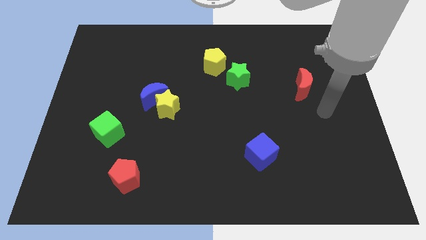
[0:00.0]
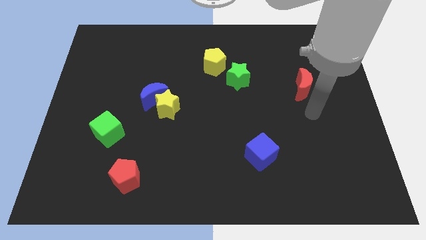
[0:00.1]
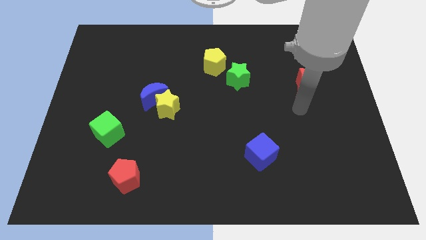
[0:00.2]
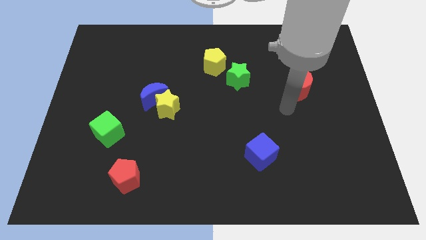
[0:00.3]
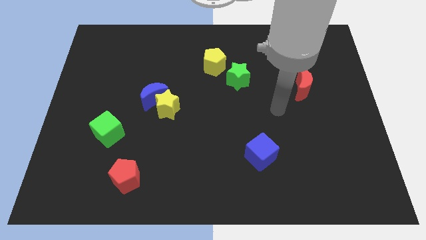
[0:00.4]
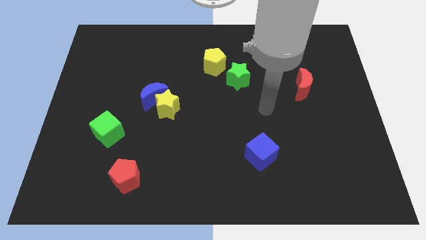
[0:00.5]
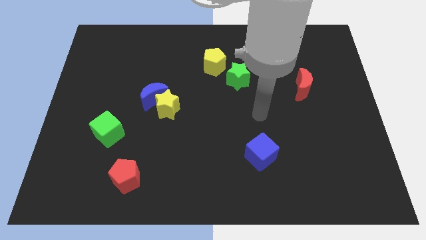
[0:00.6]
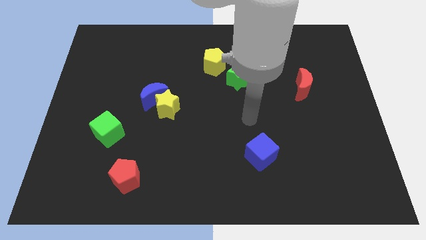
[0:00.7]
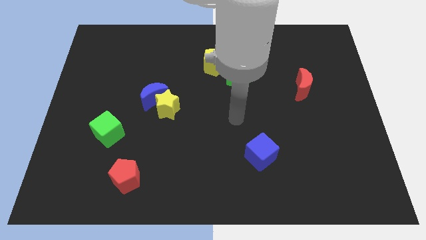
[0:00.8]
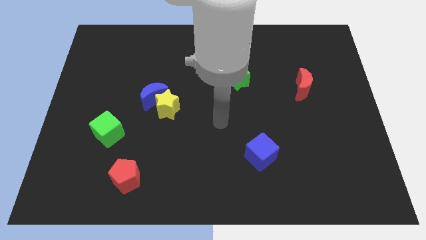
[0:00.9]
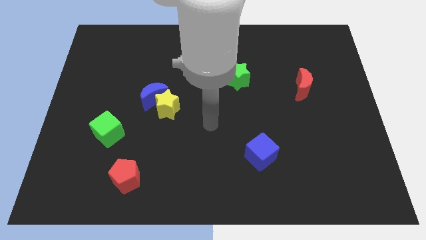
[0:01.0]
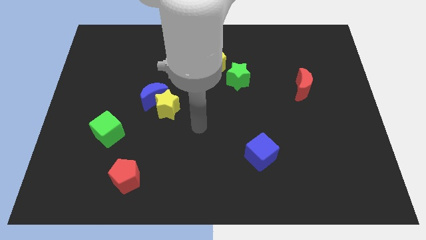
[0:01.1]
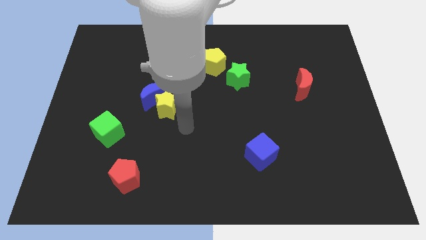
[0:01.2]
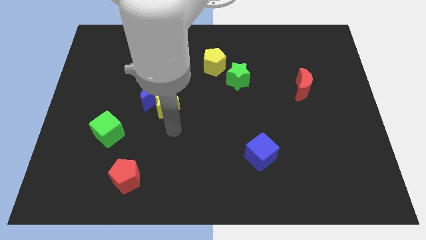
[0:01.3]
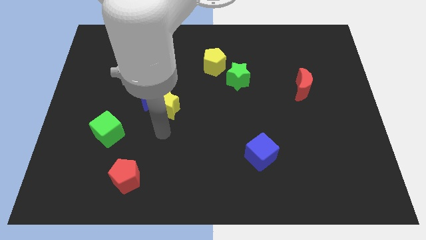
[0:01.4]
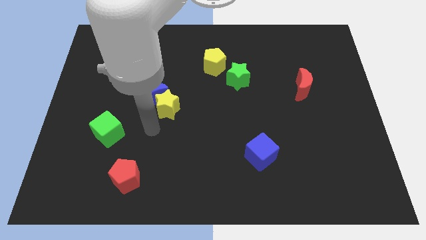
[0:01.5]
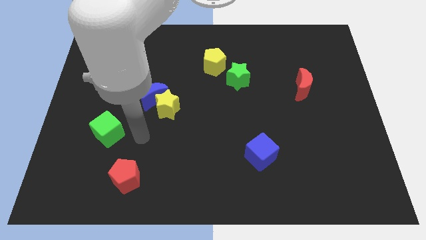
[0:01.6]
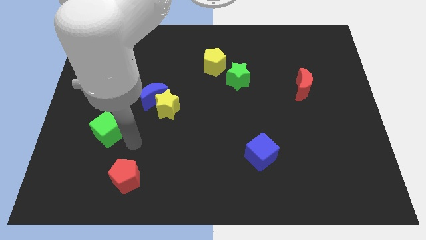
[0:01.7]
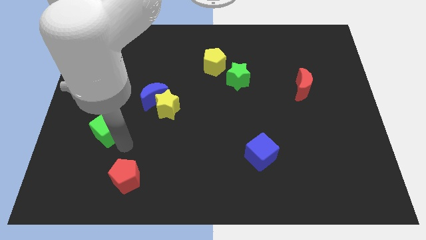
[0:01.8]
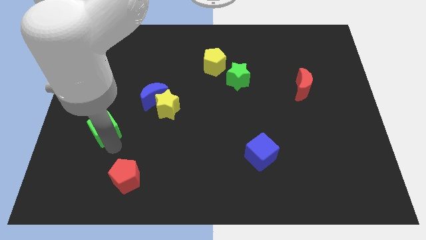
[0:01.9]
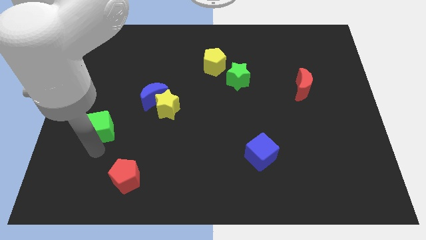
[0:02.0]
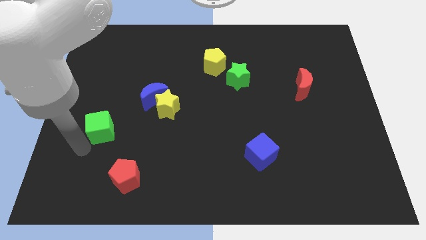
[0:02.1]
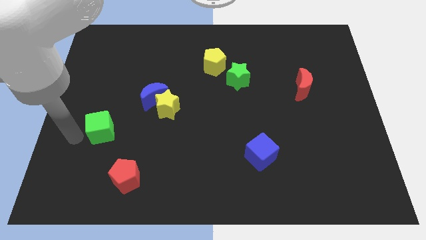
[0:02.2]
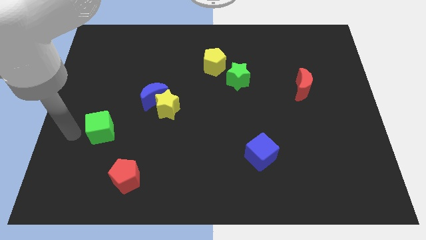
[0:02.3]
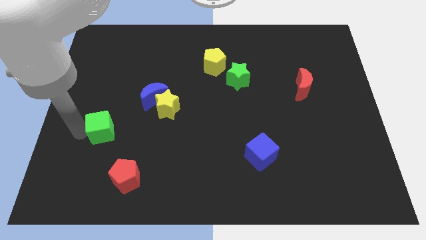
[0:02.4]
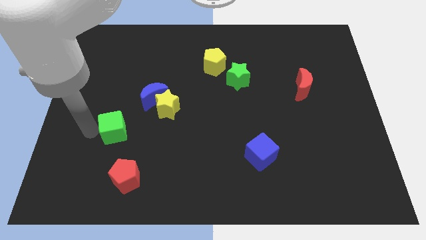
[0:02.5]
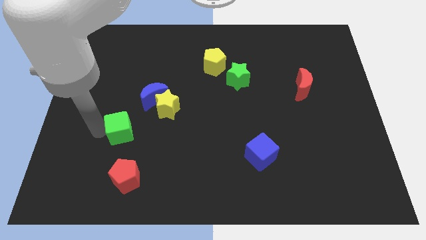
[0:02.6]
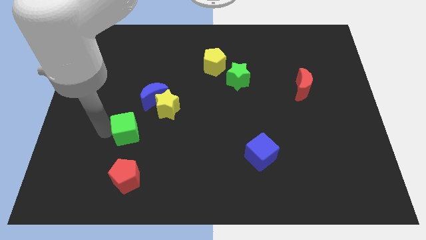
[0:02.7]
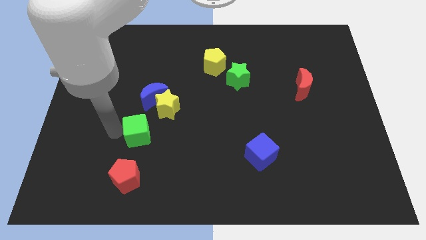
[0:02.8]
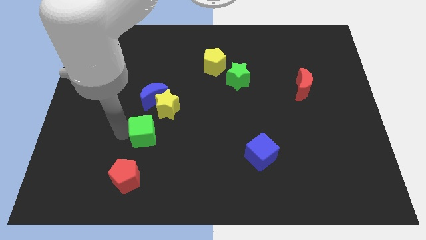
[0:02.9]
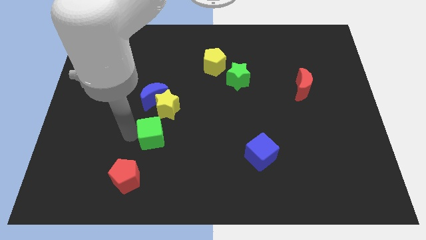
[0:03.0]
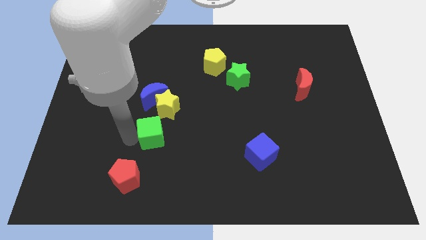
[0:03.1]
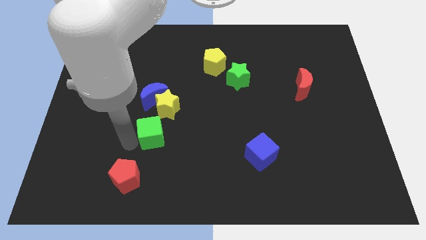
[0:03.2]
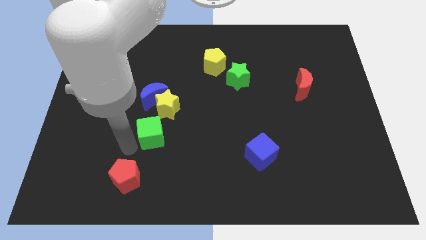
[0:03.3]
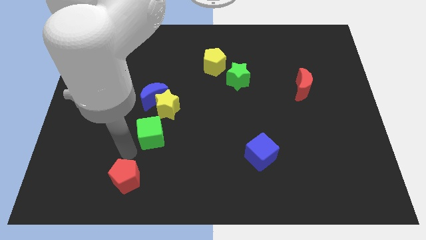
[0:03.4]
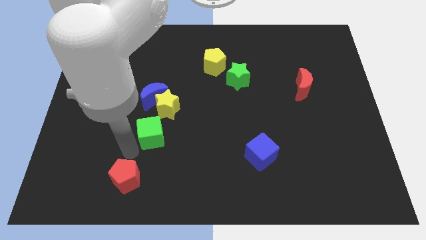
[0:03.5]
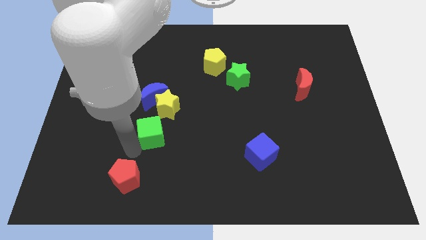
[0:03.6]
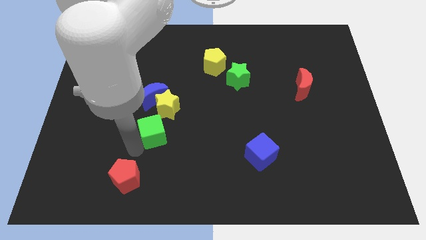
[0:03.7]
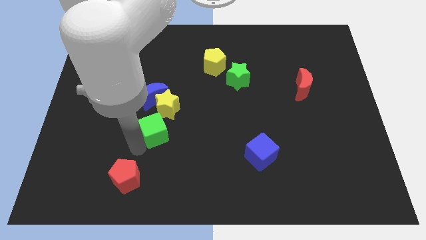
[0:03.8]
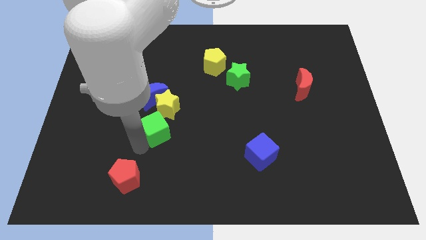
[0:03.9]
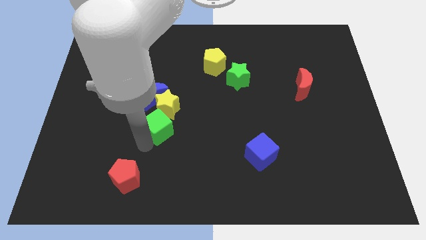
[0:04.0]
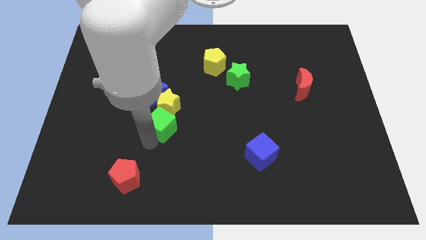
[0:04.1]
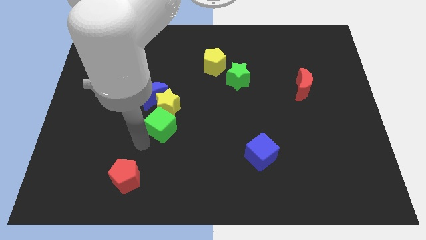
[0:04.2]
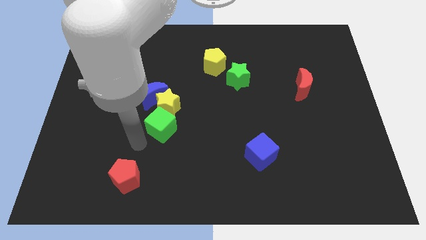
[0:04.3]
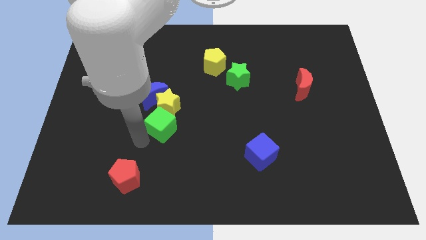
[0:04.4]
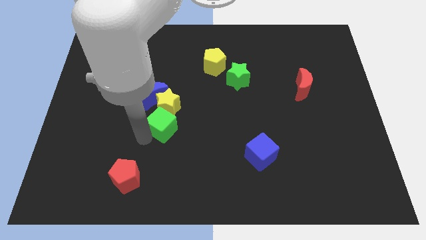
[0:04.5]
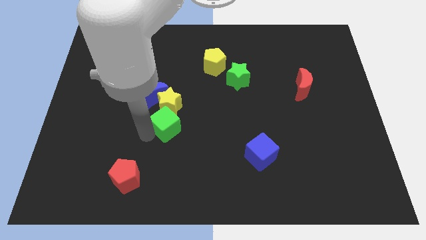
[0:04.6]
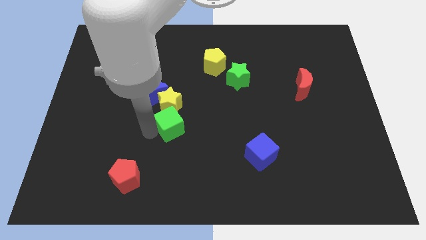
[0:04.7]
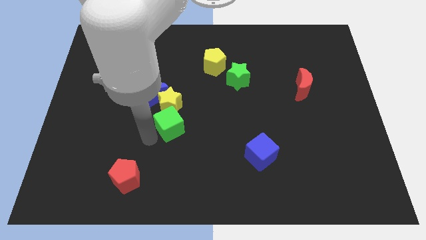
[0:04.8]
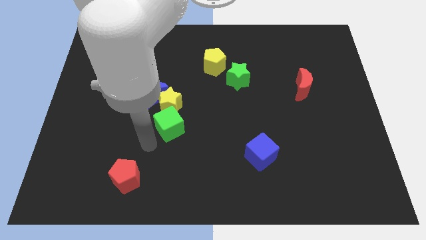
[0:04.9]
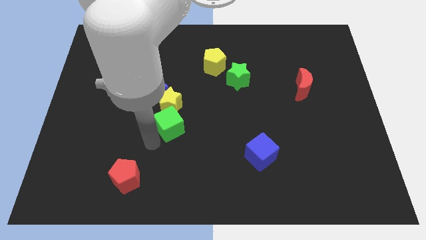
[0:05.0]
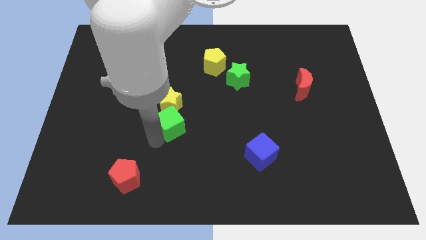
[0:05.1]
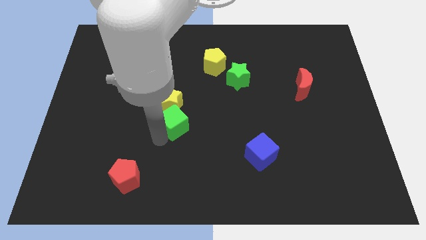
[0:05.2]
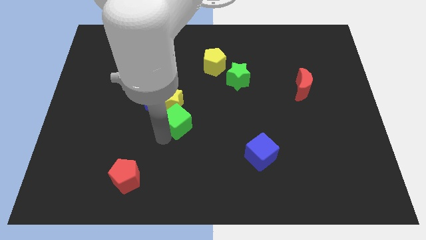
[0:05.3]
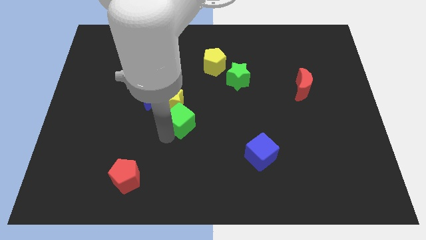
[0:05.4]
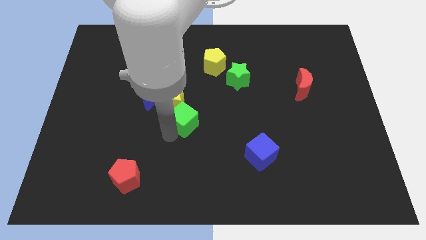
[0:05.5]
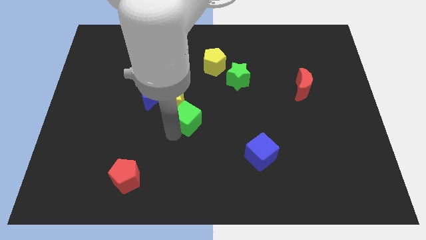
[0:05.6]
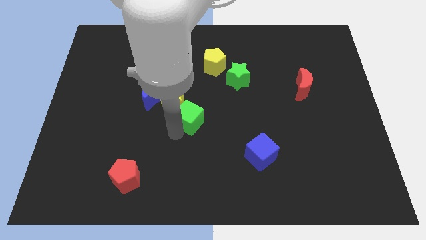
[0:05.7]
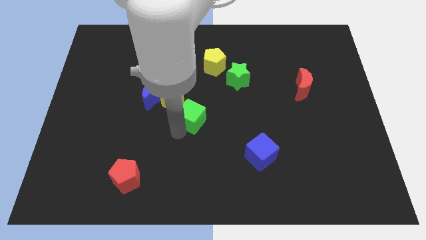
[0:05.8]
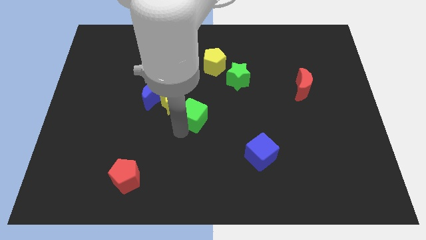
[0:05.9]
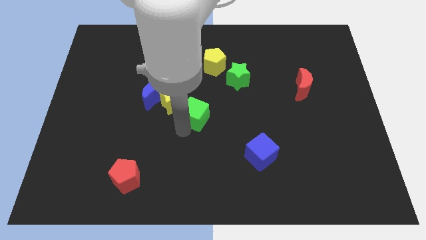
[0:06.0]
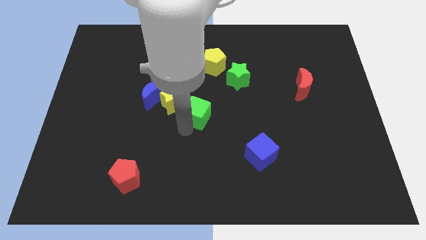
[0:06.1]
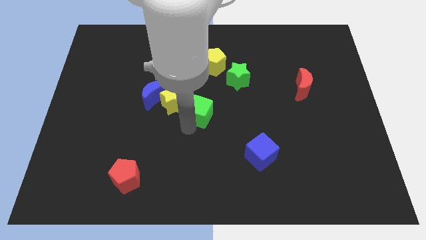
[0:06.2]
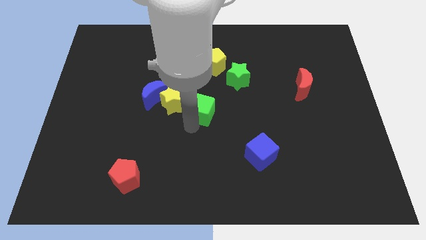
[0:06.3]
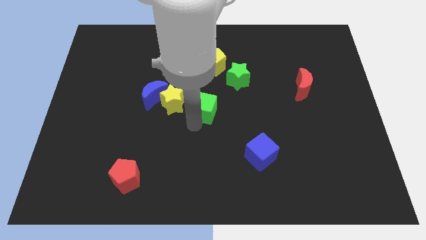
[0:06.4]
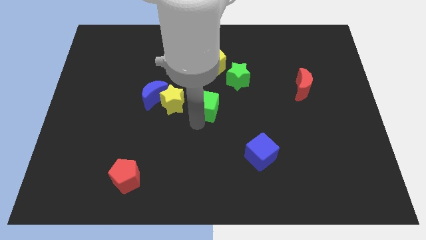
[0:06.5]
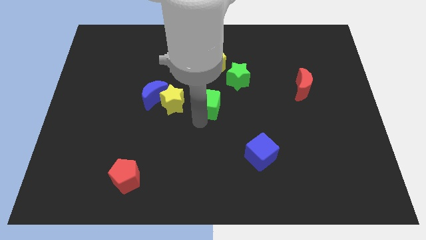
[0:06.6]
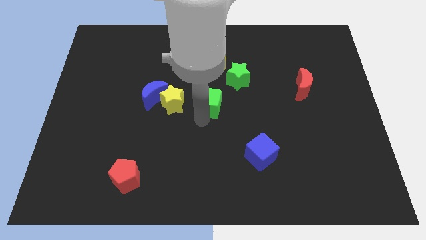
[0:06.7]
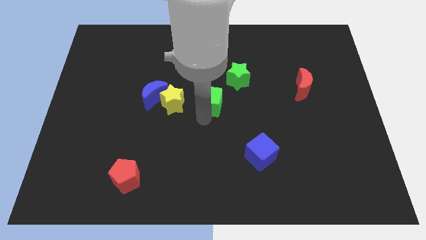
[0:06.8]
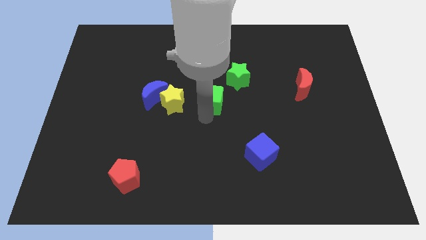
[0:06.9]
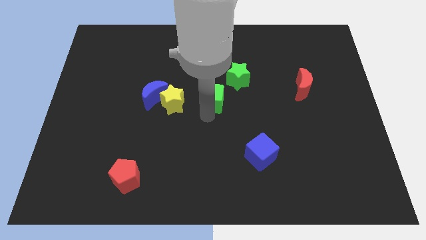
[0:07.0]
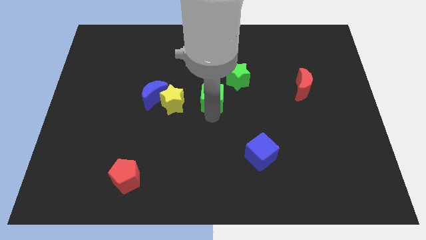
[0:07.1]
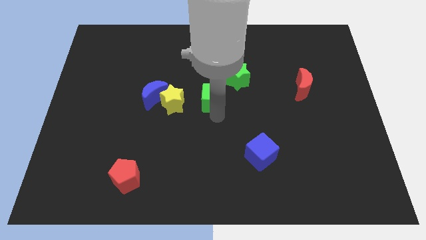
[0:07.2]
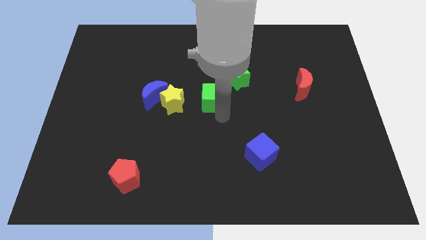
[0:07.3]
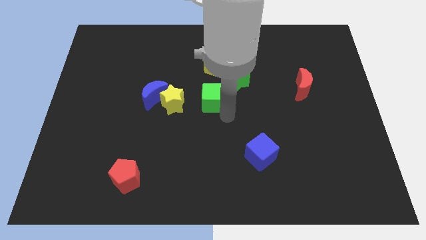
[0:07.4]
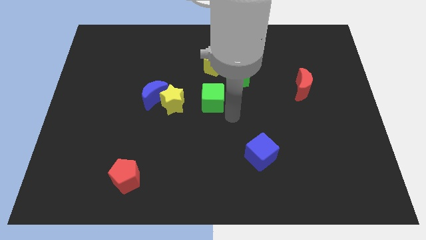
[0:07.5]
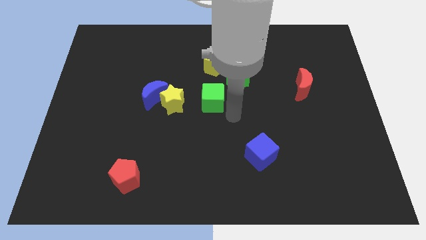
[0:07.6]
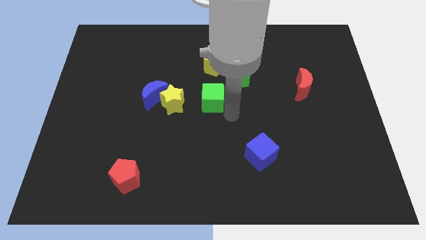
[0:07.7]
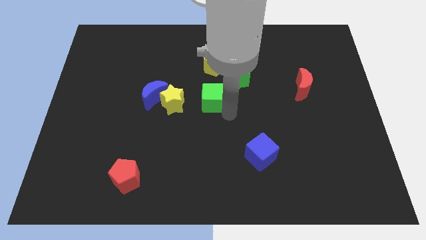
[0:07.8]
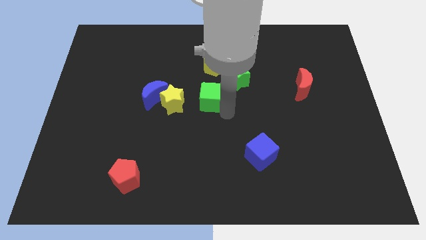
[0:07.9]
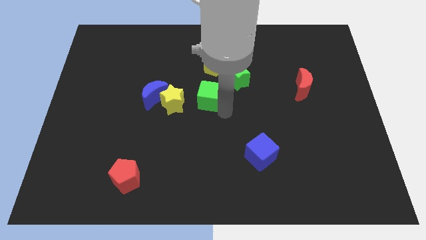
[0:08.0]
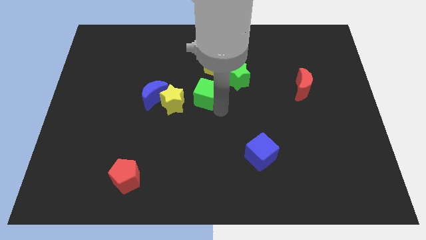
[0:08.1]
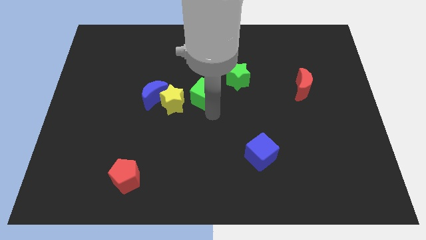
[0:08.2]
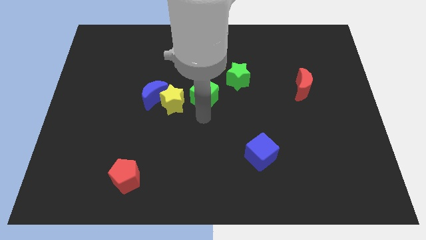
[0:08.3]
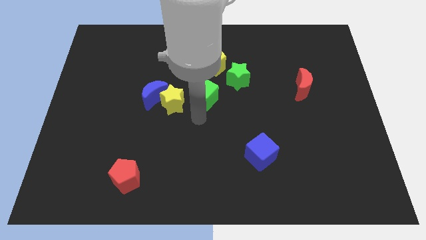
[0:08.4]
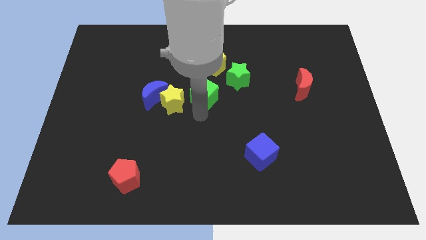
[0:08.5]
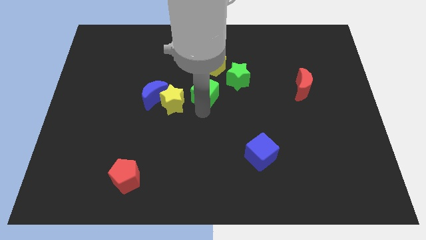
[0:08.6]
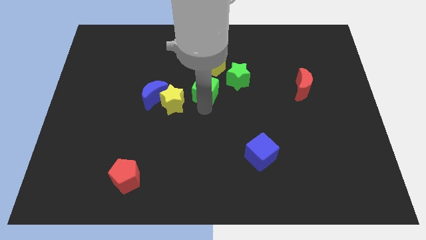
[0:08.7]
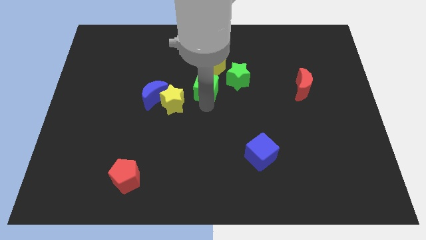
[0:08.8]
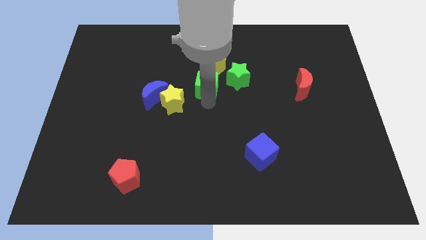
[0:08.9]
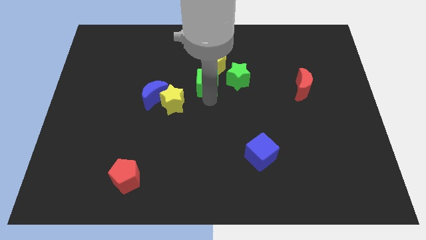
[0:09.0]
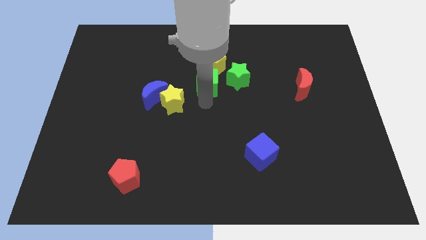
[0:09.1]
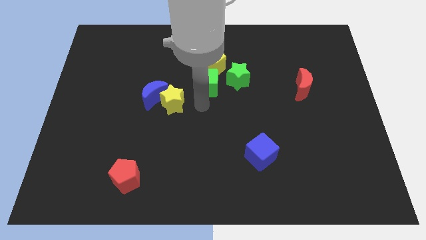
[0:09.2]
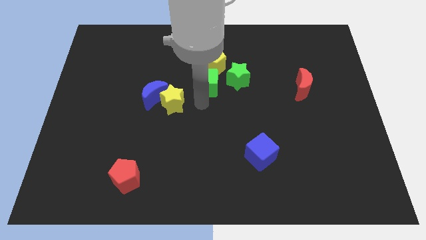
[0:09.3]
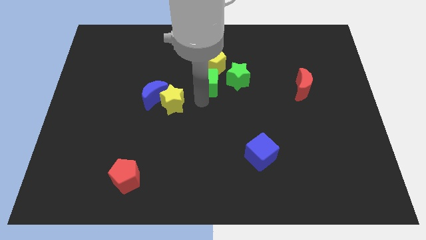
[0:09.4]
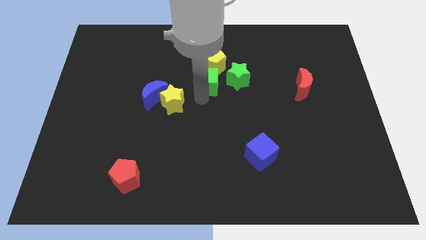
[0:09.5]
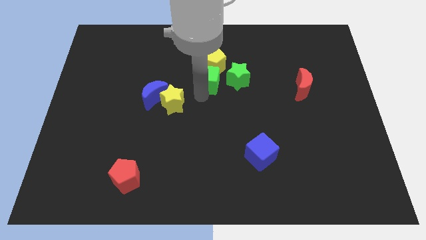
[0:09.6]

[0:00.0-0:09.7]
push the green cube to the yellow pentagon
